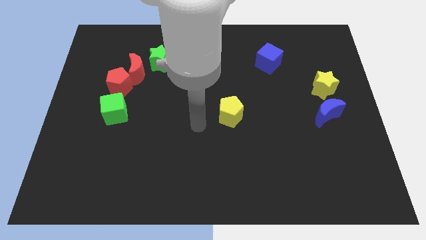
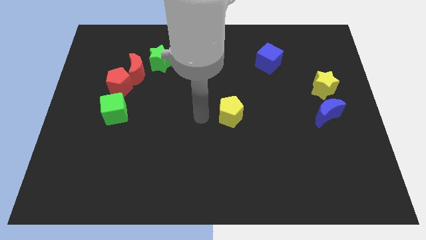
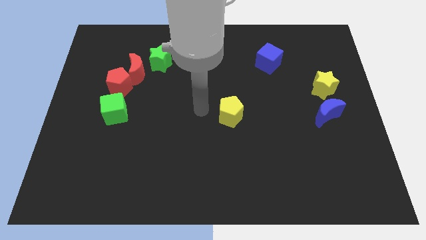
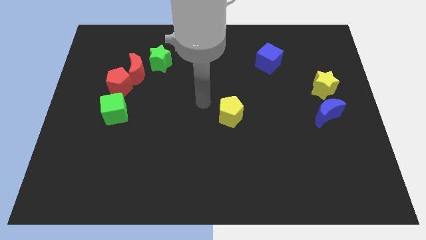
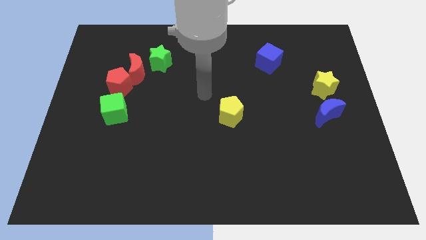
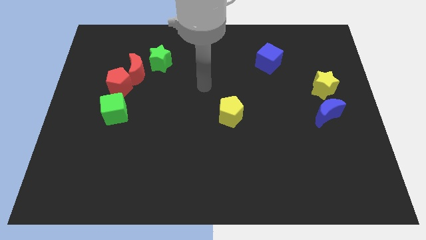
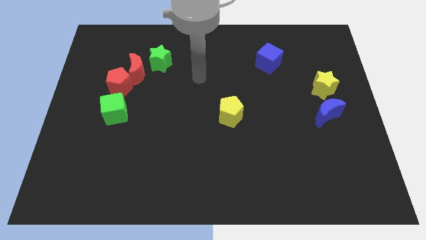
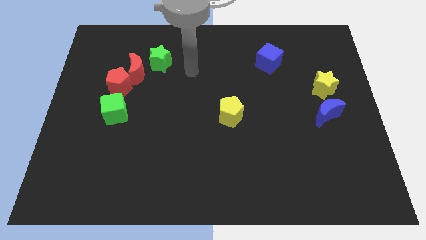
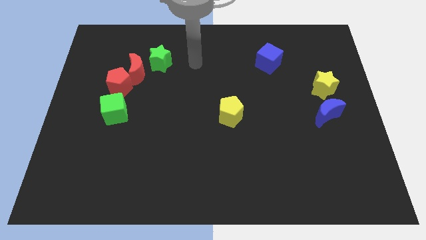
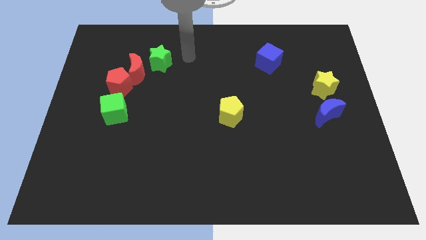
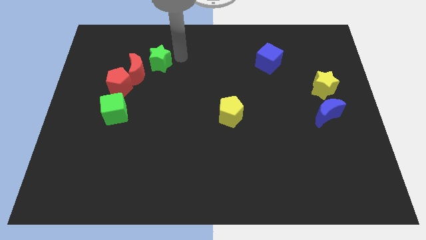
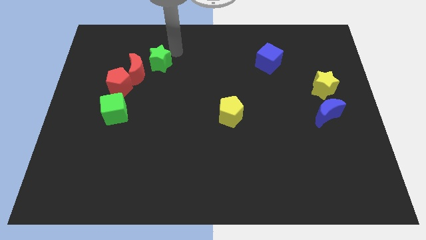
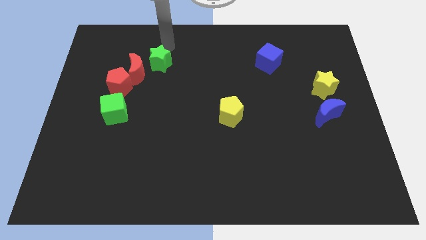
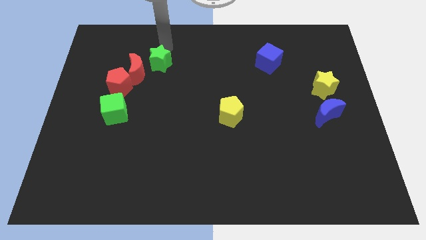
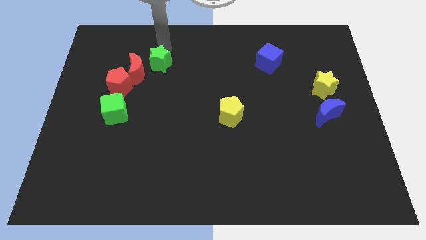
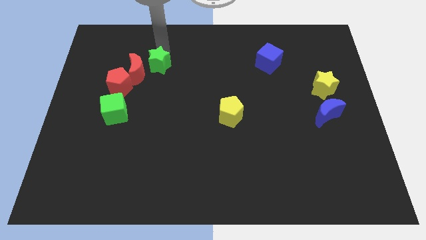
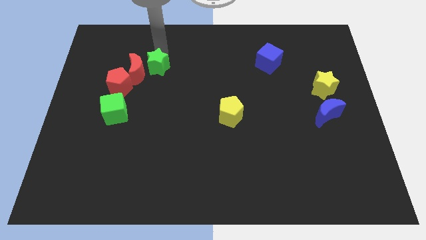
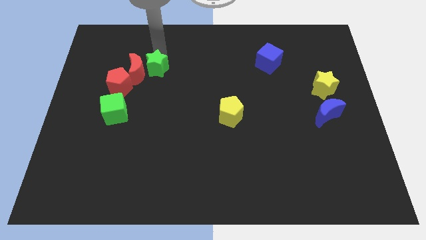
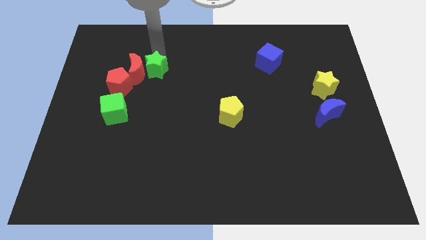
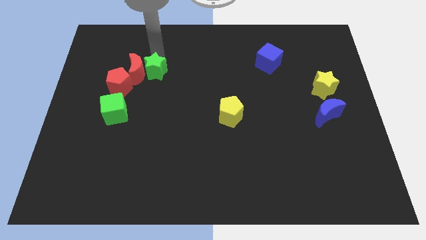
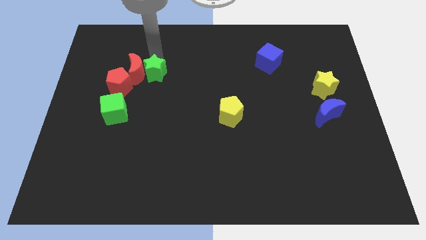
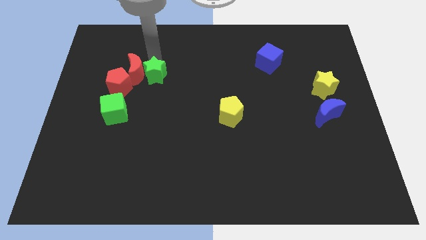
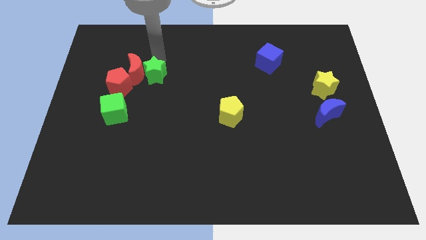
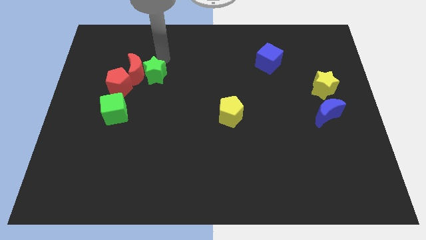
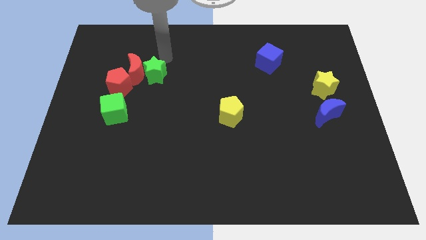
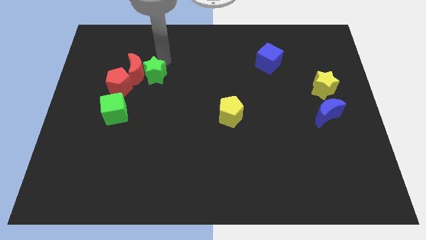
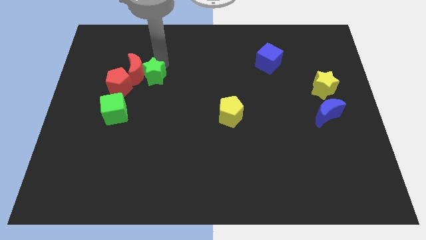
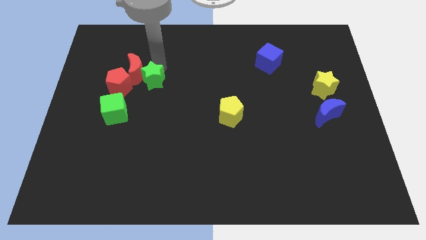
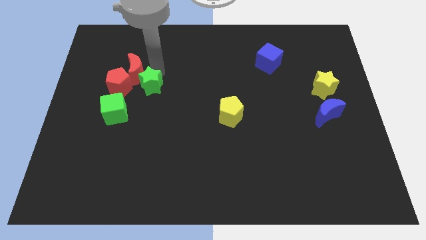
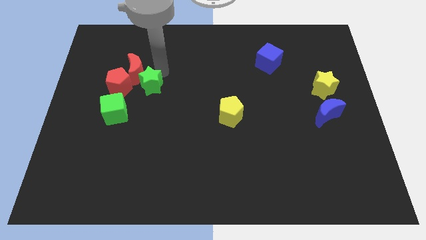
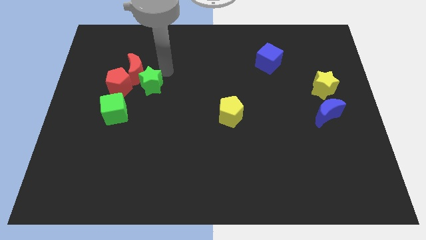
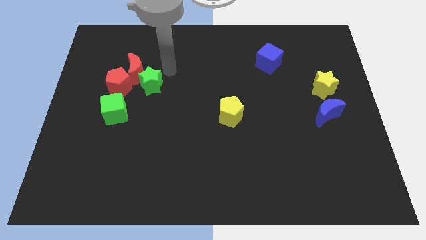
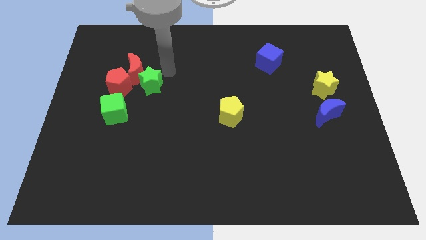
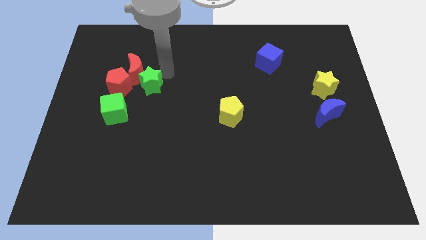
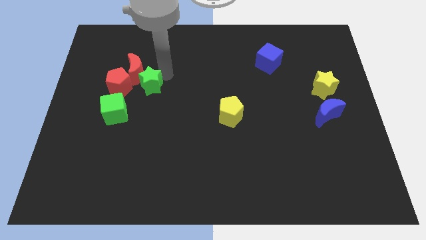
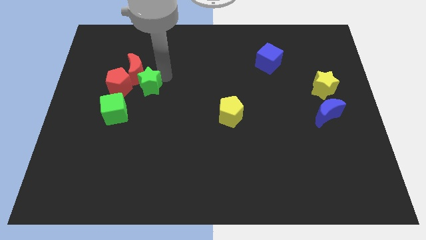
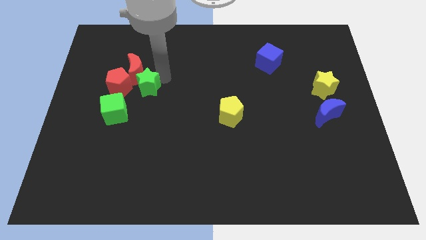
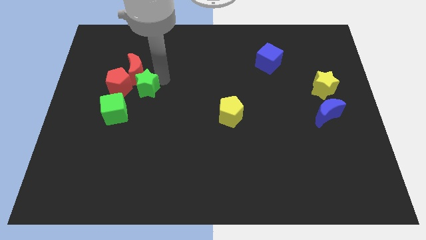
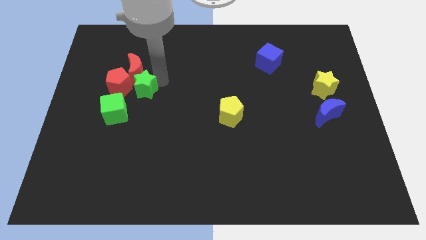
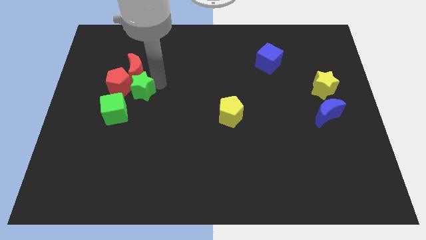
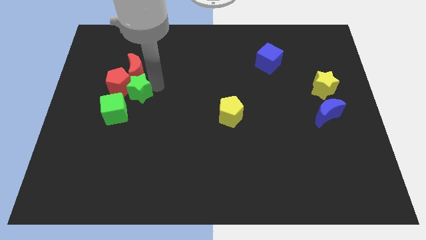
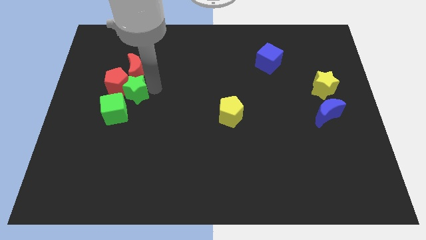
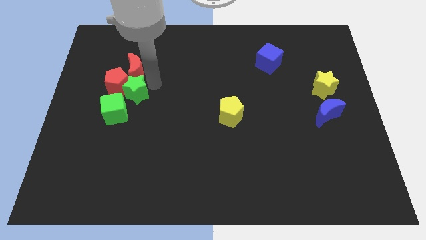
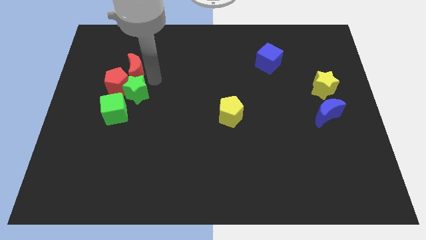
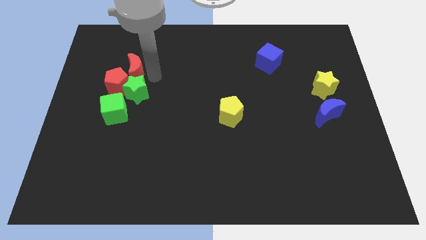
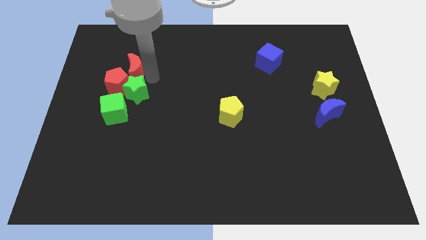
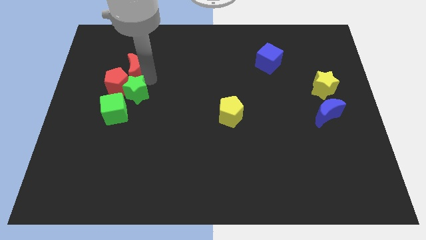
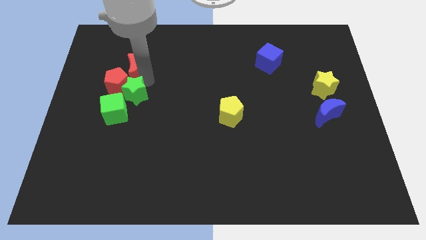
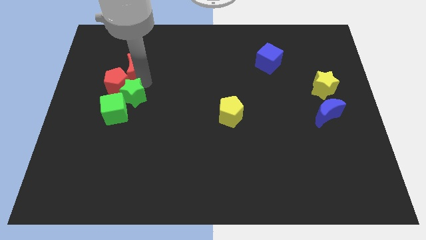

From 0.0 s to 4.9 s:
put the green star towards the green cube

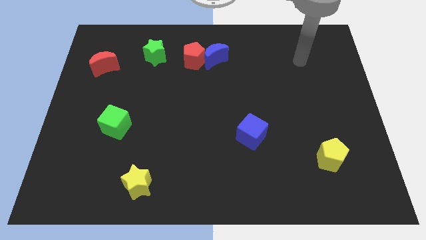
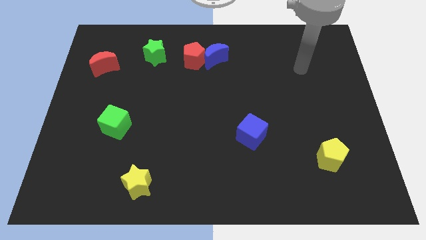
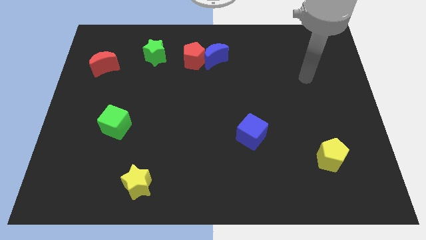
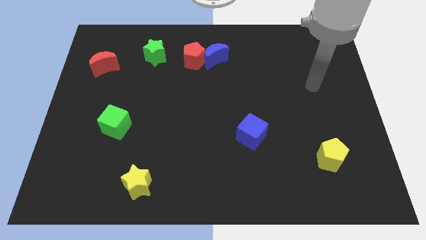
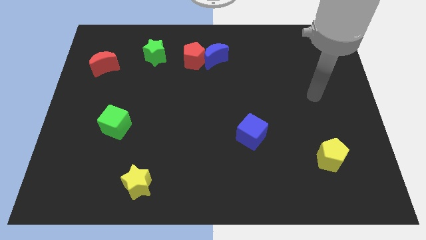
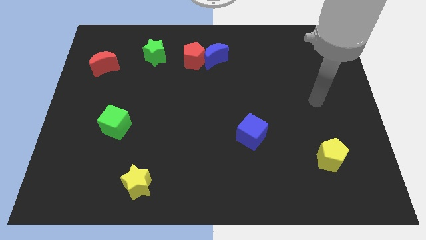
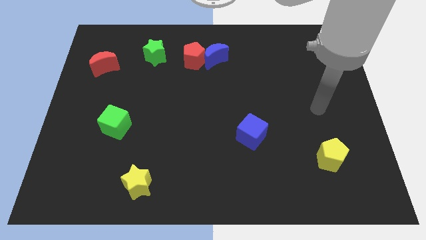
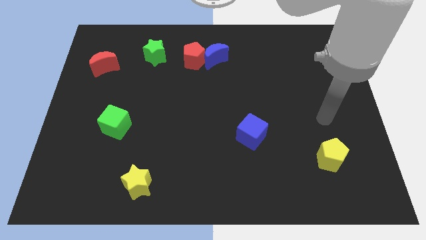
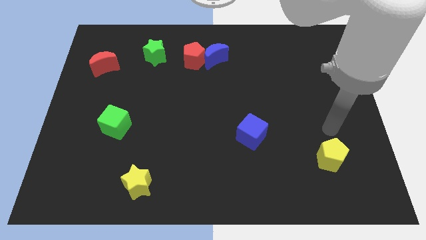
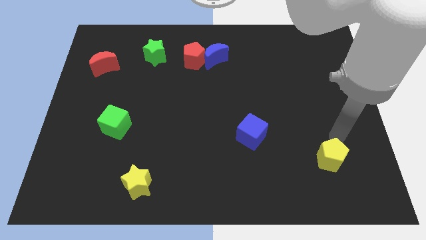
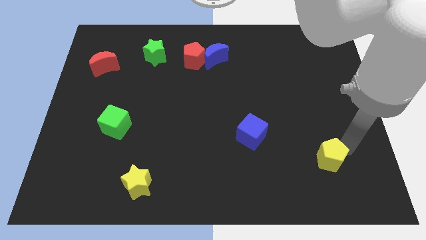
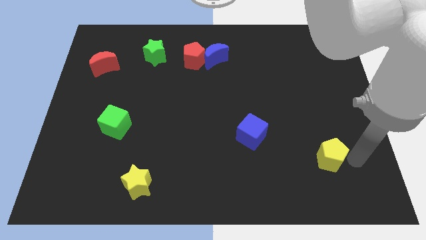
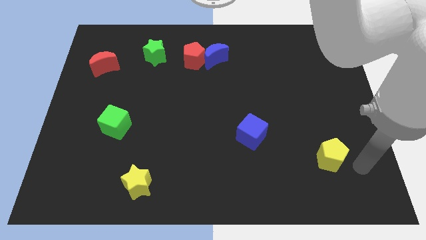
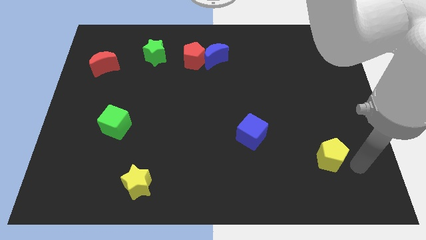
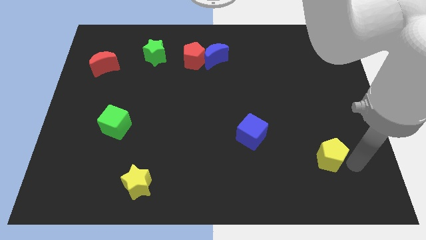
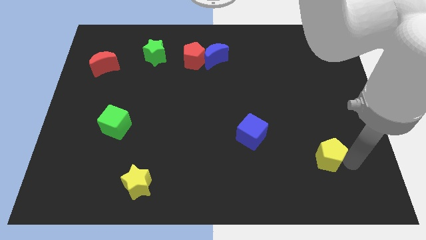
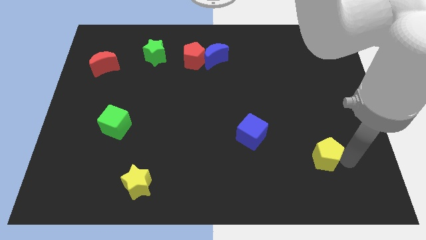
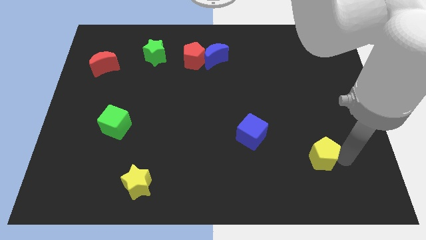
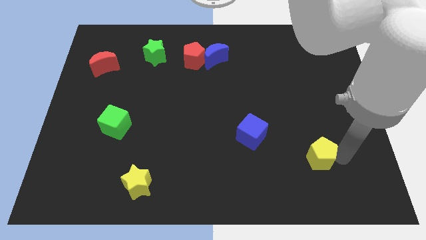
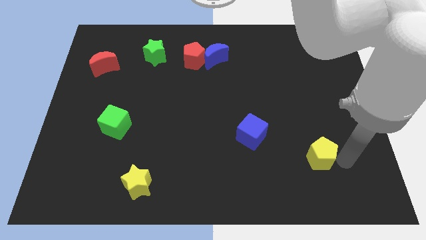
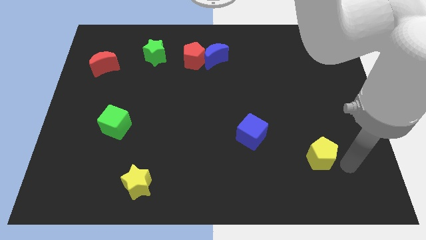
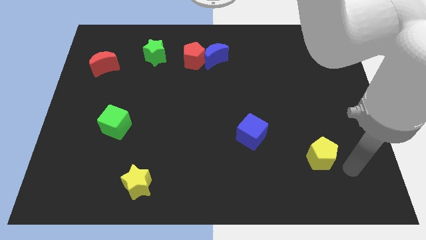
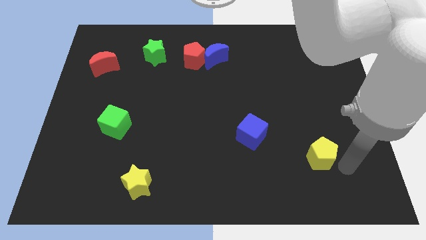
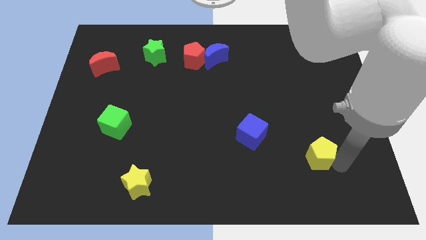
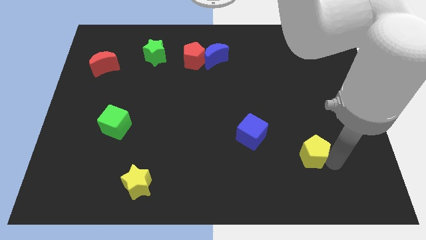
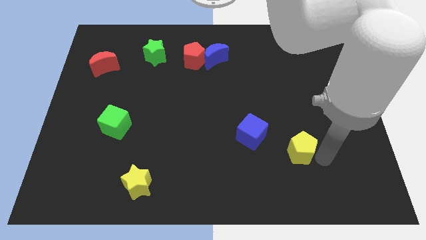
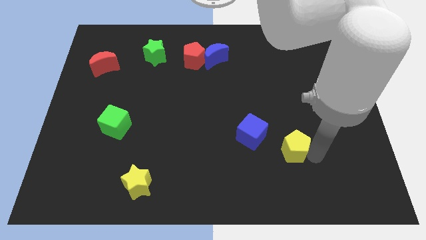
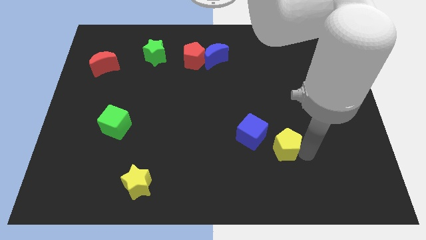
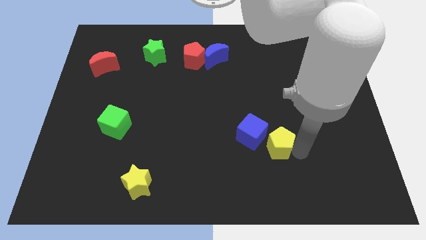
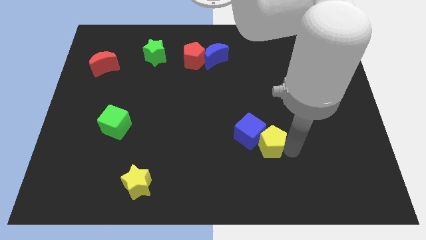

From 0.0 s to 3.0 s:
put the yellow pentagon towards the blue cube
